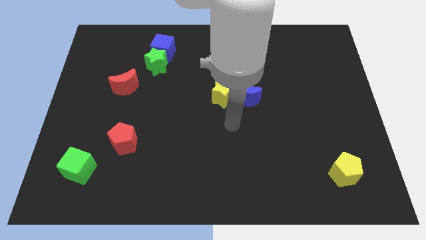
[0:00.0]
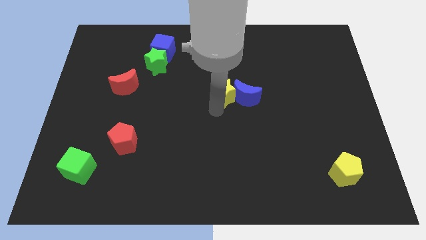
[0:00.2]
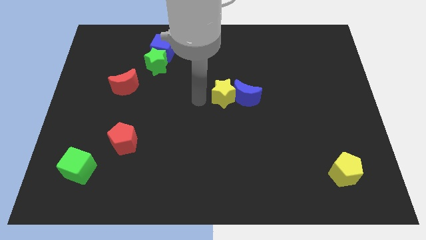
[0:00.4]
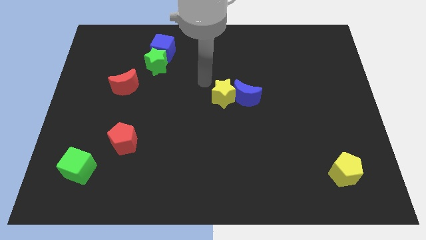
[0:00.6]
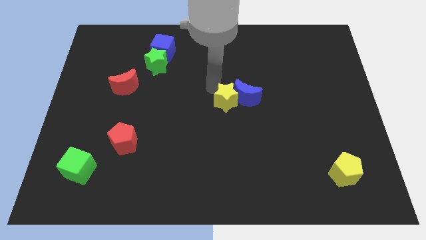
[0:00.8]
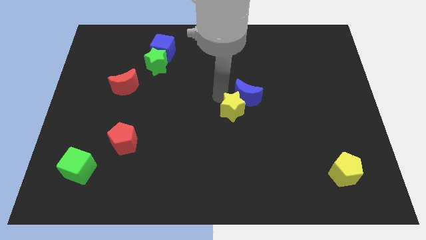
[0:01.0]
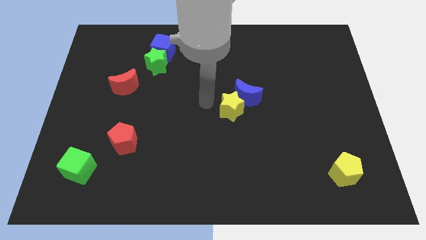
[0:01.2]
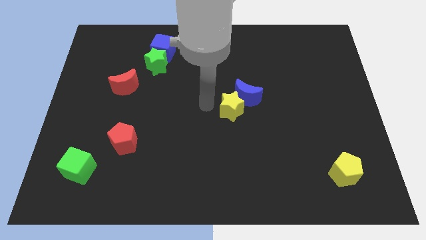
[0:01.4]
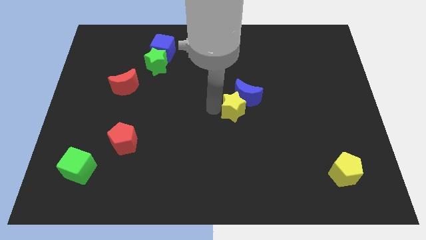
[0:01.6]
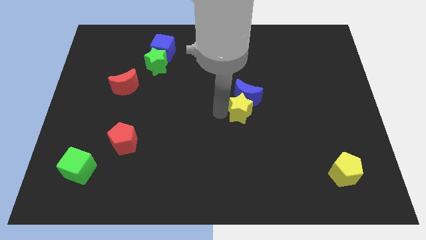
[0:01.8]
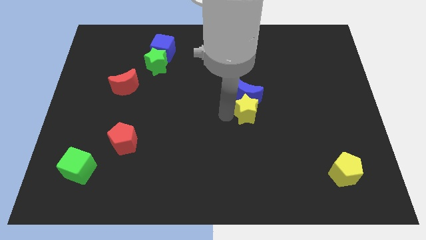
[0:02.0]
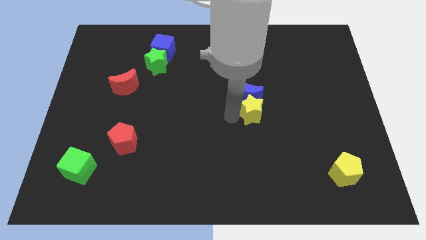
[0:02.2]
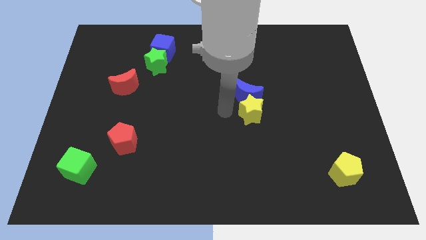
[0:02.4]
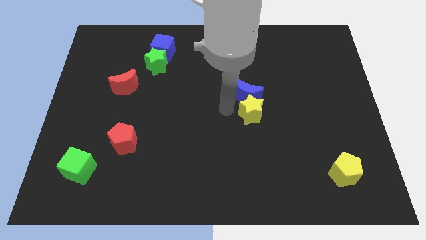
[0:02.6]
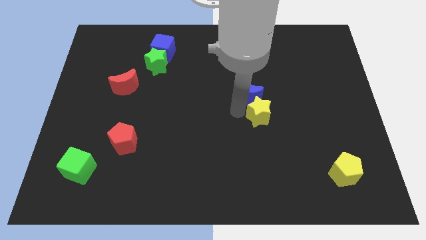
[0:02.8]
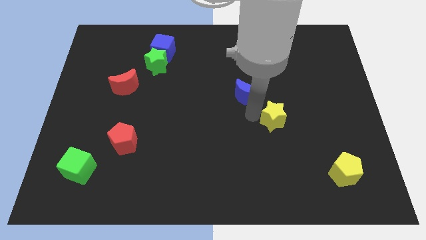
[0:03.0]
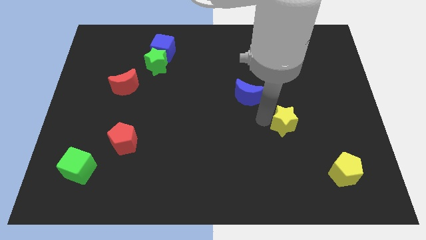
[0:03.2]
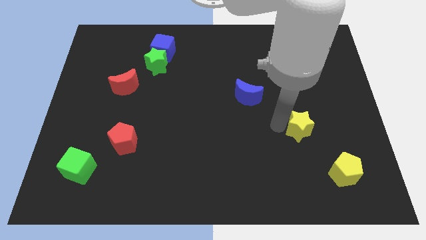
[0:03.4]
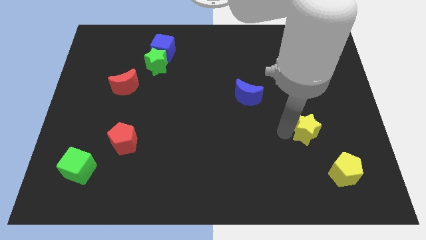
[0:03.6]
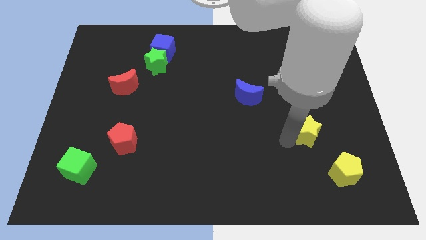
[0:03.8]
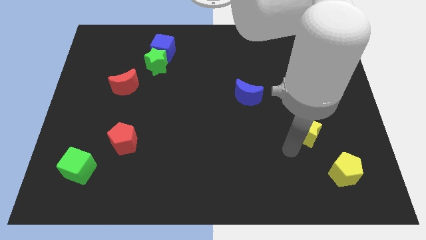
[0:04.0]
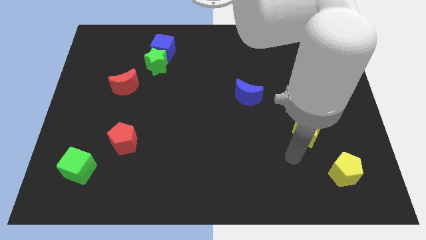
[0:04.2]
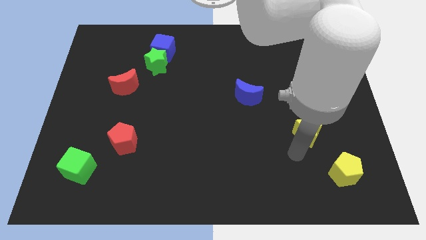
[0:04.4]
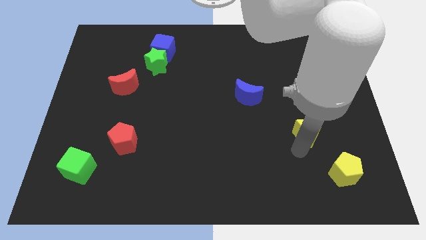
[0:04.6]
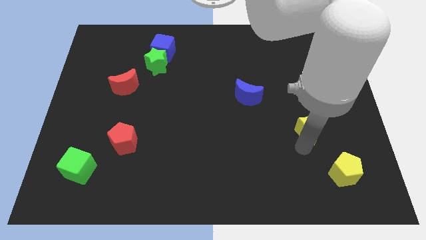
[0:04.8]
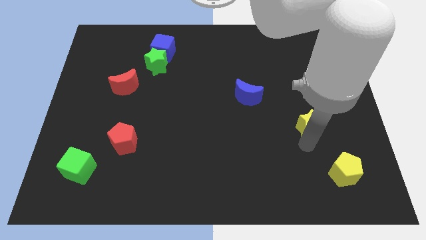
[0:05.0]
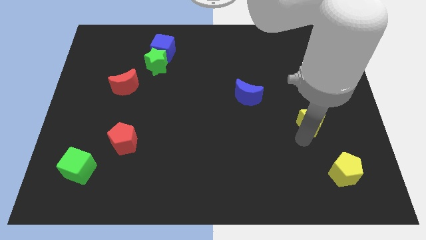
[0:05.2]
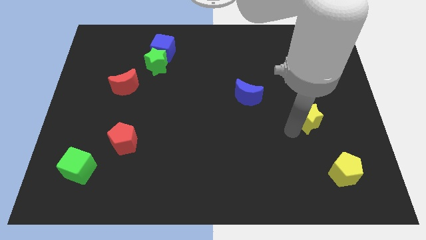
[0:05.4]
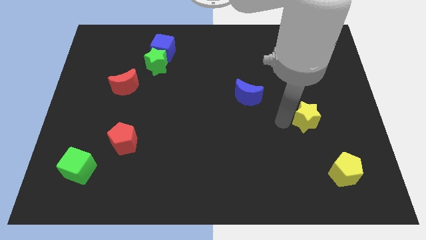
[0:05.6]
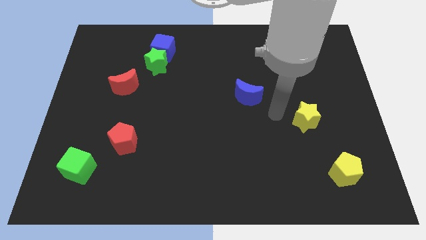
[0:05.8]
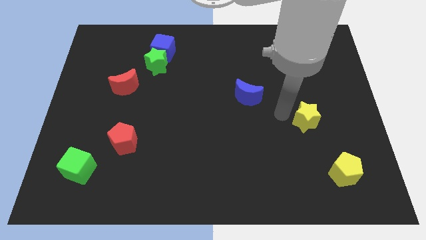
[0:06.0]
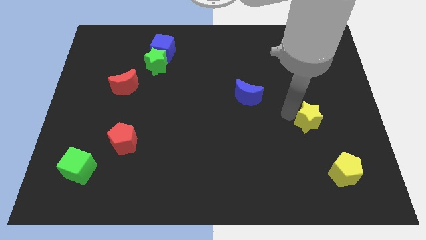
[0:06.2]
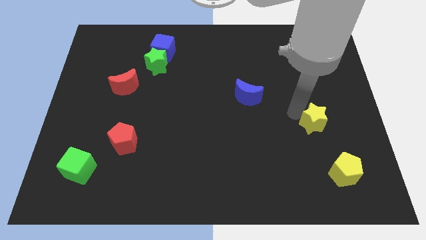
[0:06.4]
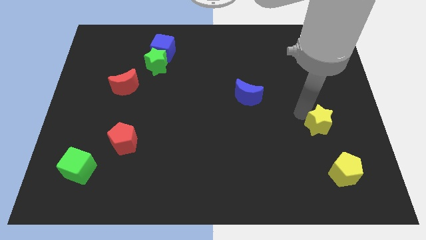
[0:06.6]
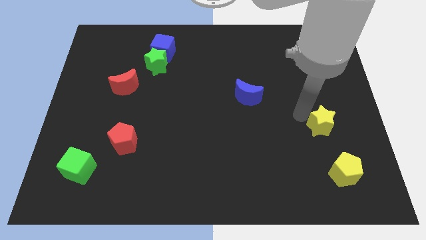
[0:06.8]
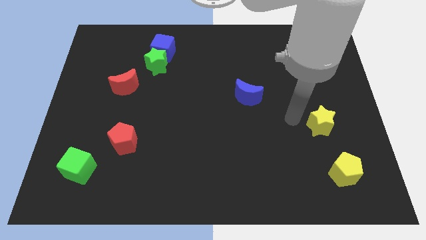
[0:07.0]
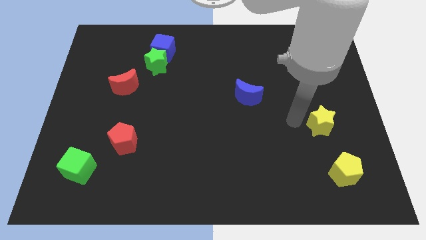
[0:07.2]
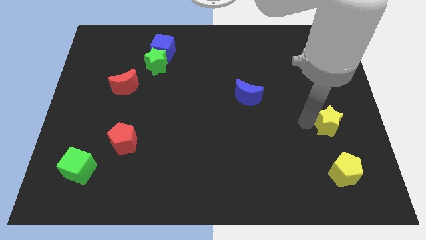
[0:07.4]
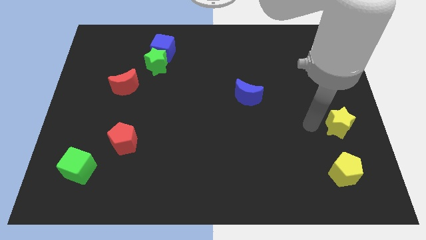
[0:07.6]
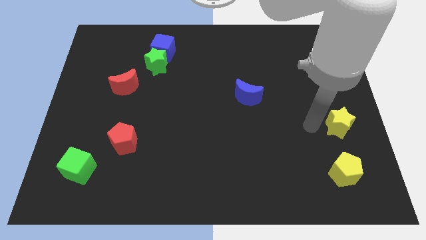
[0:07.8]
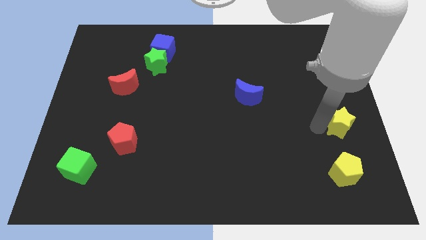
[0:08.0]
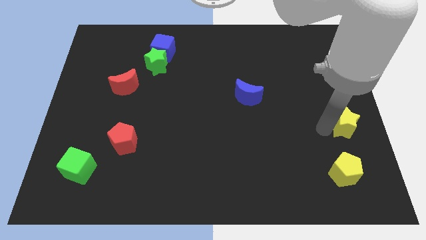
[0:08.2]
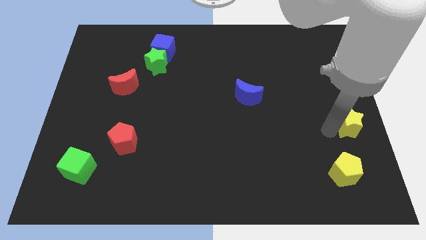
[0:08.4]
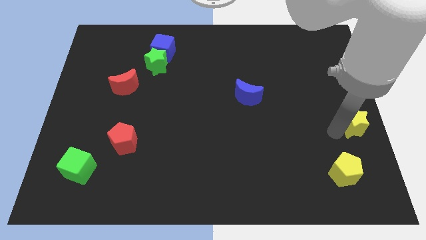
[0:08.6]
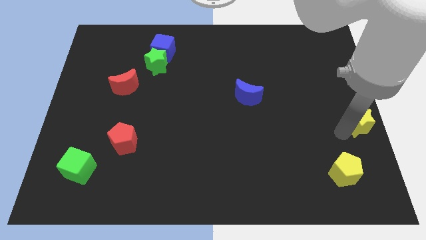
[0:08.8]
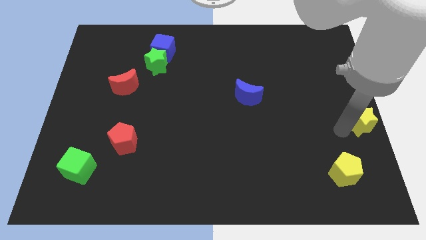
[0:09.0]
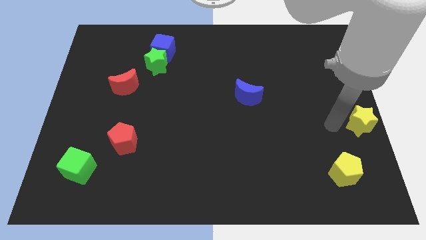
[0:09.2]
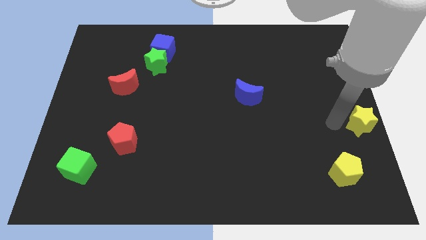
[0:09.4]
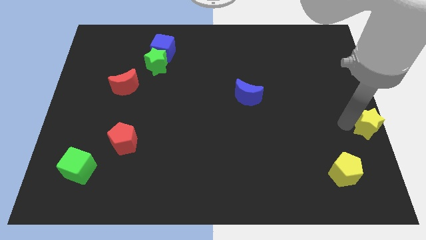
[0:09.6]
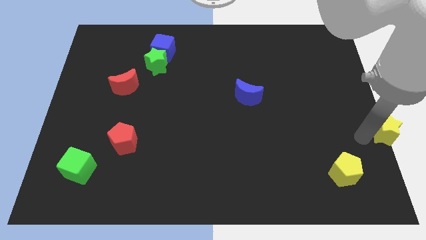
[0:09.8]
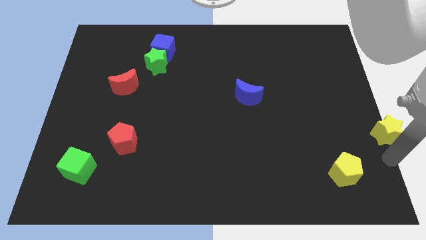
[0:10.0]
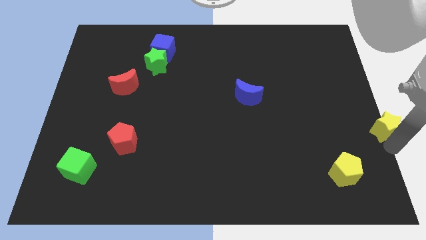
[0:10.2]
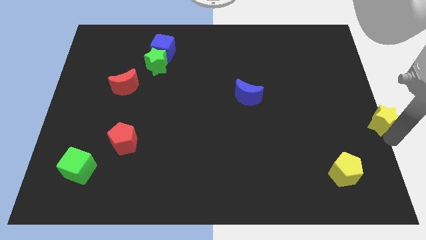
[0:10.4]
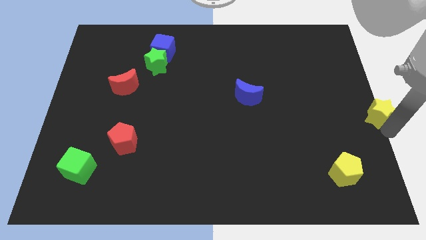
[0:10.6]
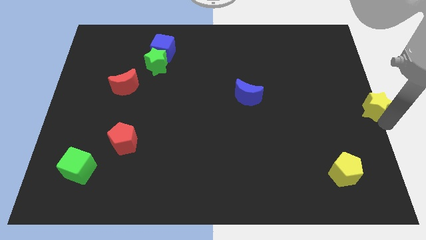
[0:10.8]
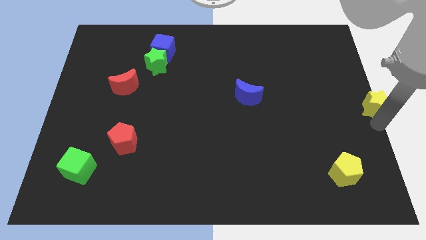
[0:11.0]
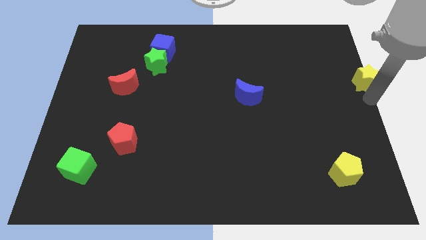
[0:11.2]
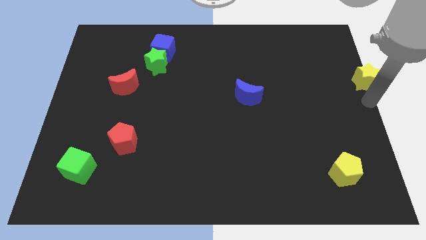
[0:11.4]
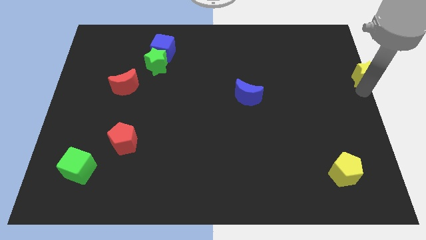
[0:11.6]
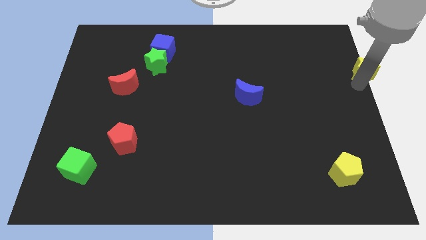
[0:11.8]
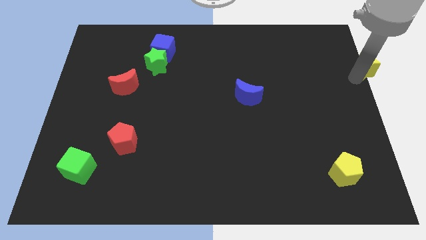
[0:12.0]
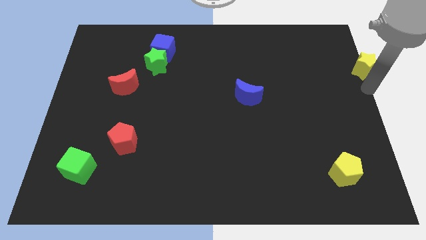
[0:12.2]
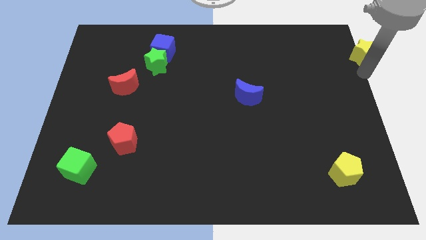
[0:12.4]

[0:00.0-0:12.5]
slide the yellow star to the top right
